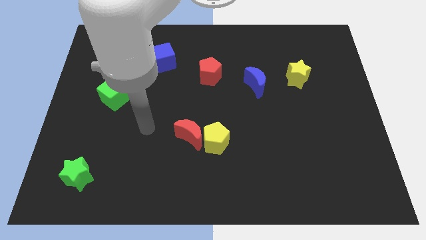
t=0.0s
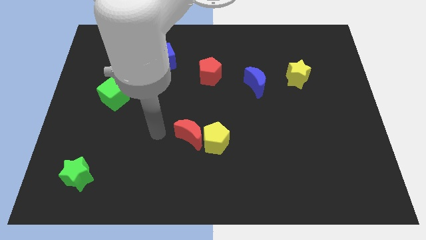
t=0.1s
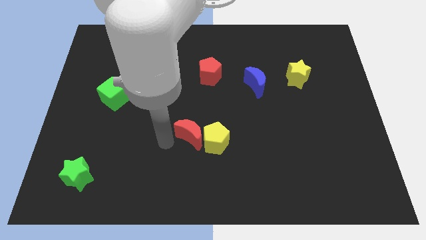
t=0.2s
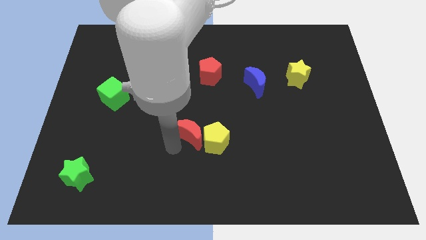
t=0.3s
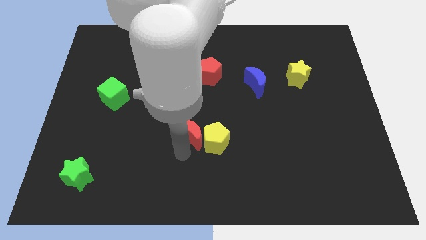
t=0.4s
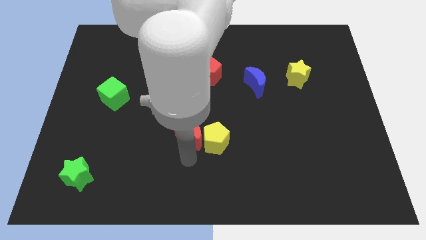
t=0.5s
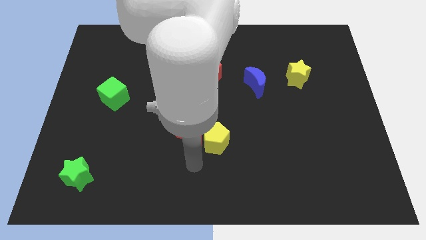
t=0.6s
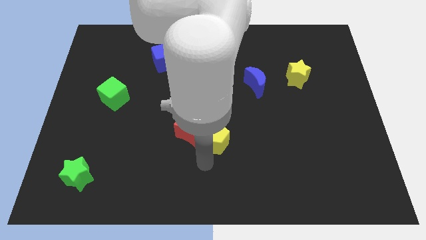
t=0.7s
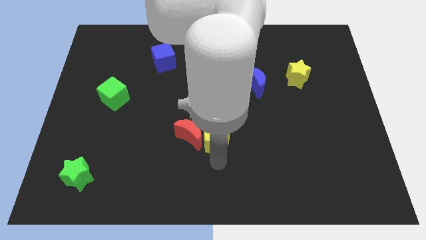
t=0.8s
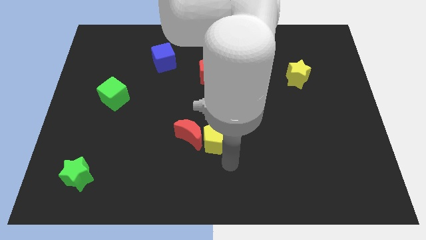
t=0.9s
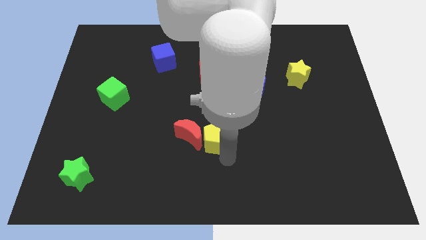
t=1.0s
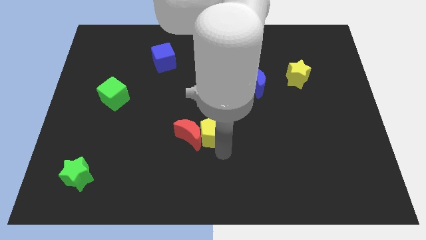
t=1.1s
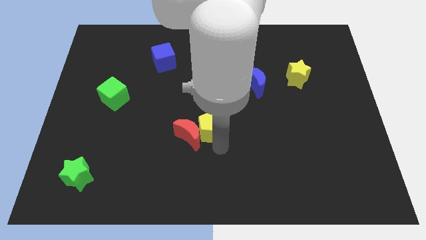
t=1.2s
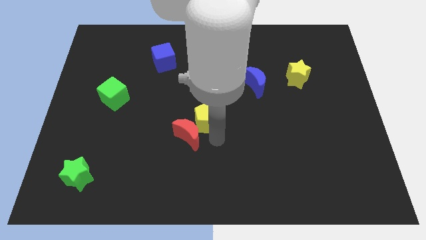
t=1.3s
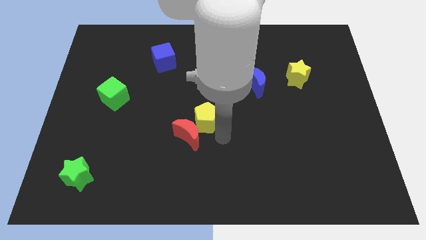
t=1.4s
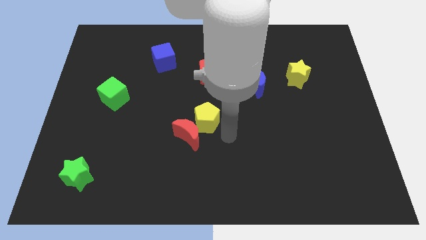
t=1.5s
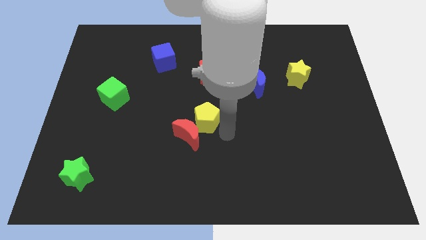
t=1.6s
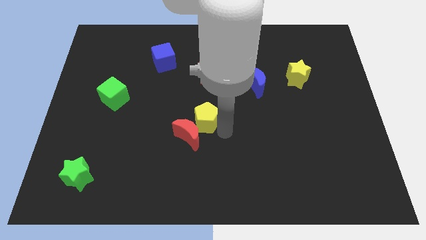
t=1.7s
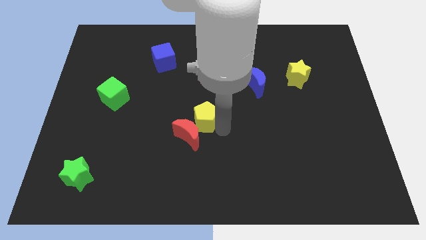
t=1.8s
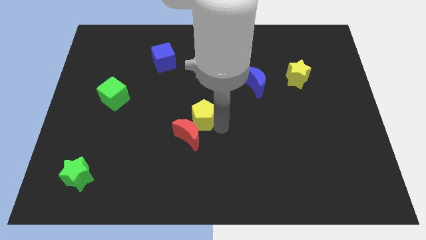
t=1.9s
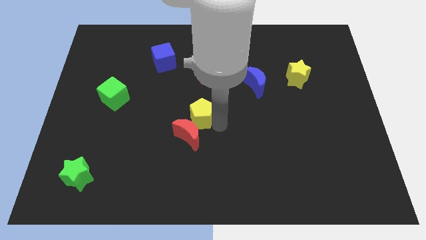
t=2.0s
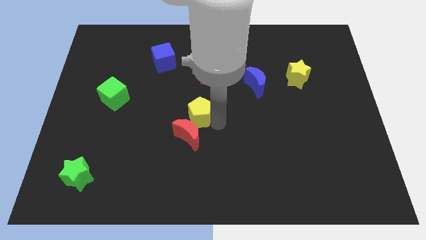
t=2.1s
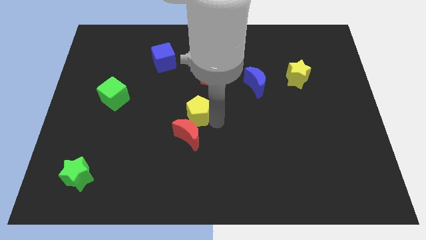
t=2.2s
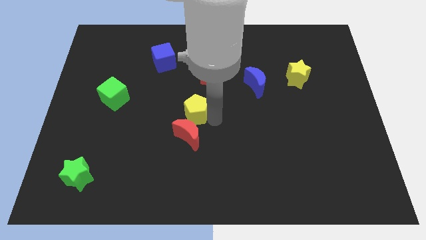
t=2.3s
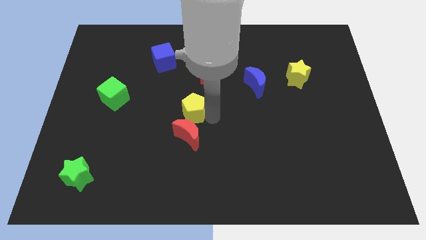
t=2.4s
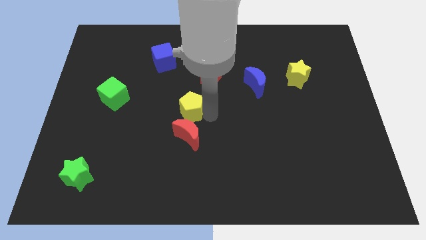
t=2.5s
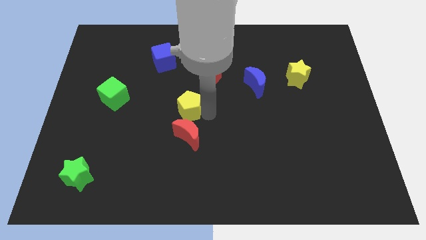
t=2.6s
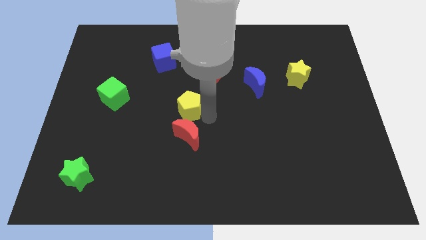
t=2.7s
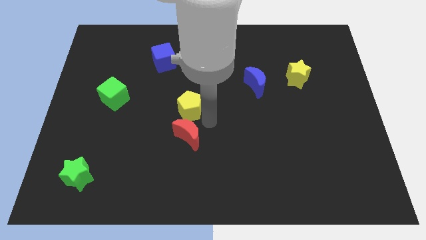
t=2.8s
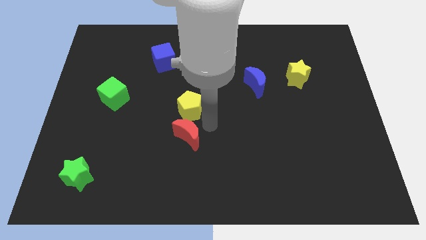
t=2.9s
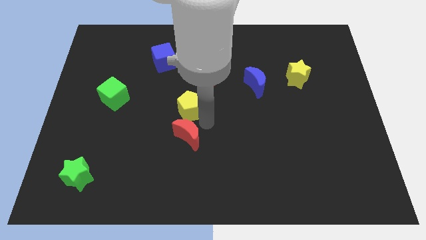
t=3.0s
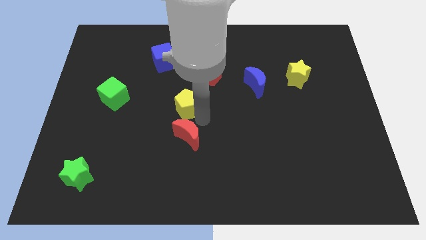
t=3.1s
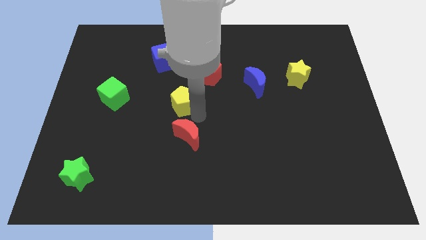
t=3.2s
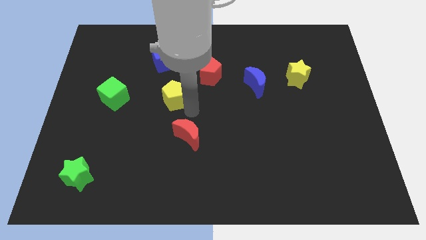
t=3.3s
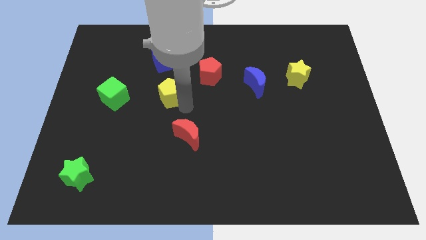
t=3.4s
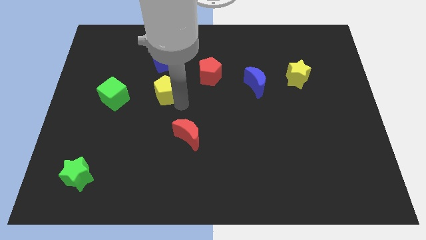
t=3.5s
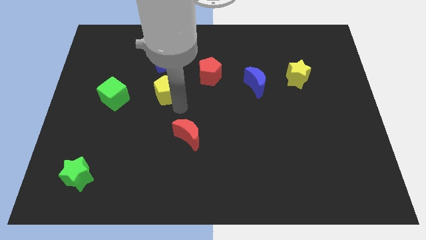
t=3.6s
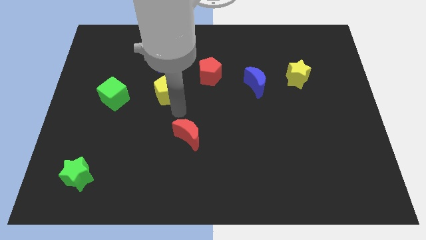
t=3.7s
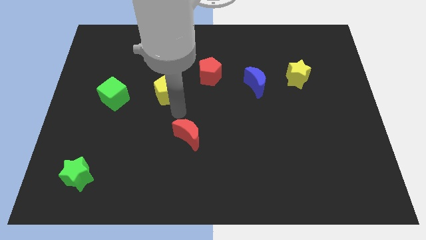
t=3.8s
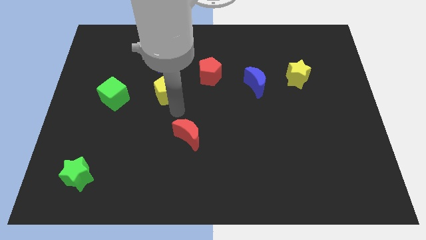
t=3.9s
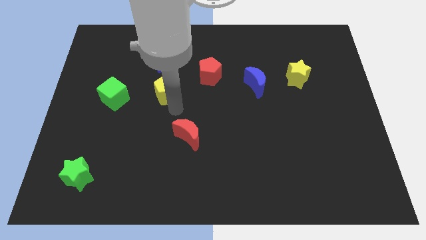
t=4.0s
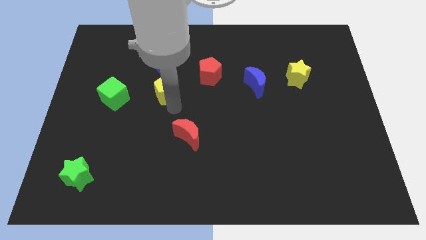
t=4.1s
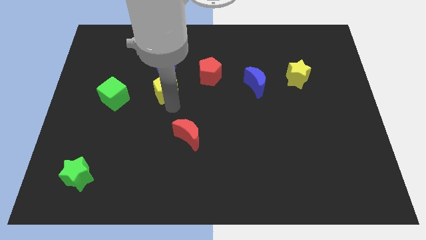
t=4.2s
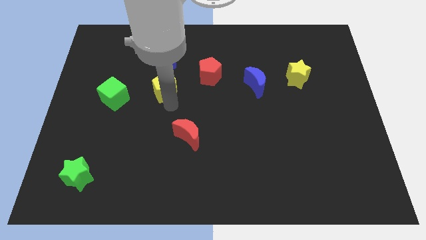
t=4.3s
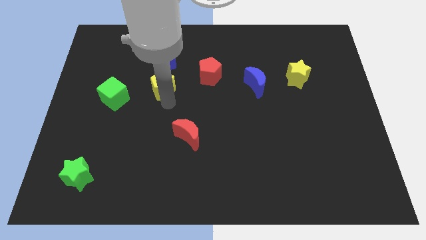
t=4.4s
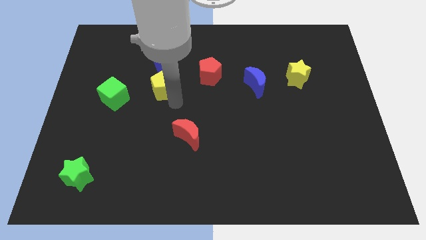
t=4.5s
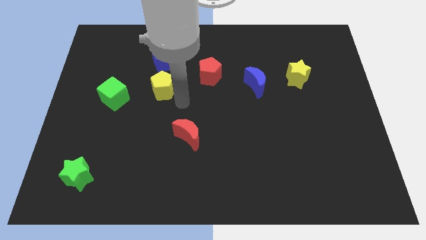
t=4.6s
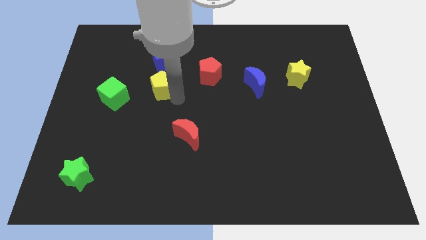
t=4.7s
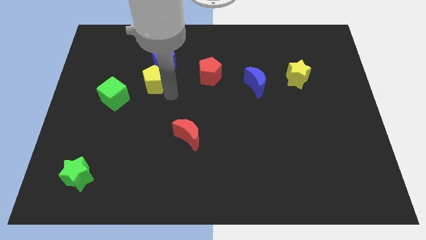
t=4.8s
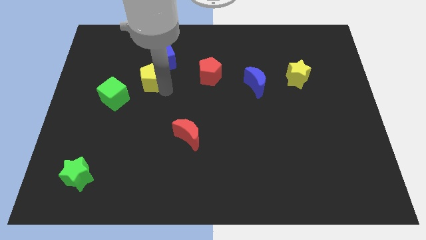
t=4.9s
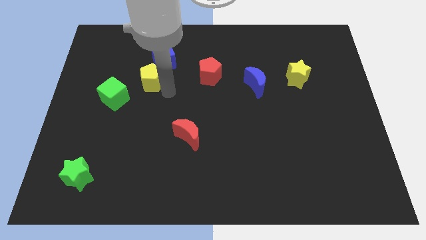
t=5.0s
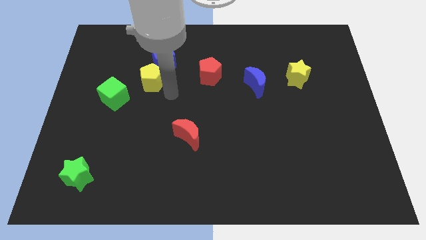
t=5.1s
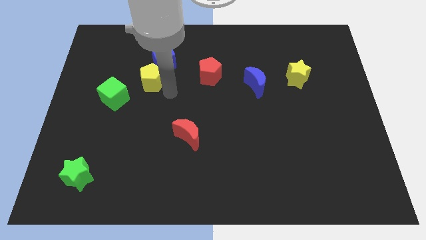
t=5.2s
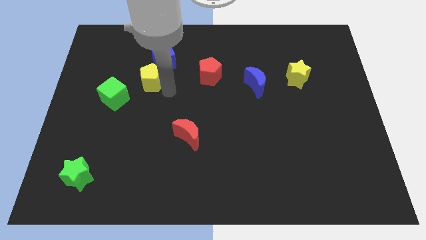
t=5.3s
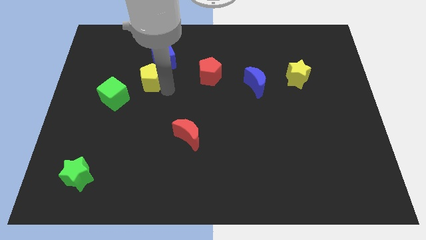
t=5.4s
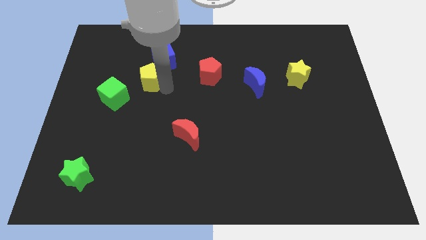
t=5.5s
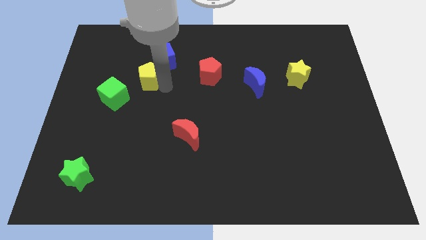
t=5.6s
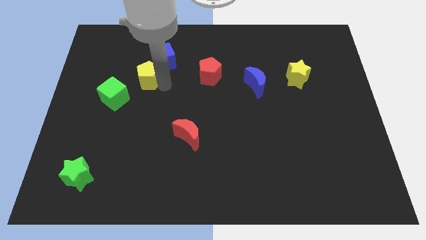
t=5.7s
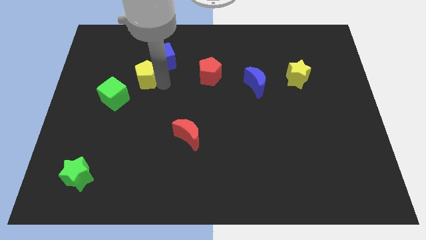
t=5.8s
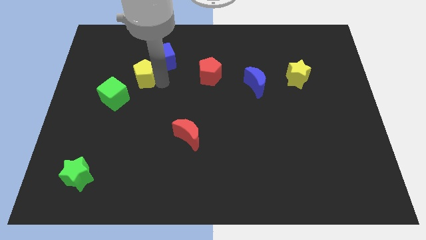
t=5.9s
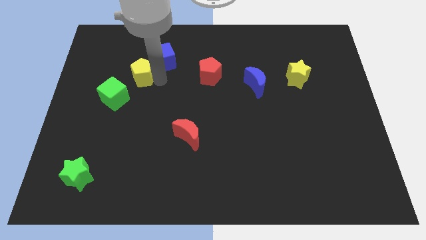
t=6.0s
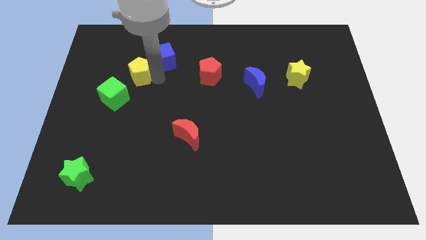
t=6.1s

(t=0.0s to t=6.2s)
slide the yellow pentagon to the left side of the blue cube

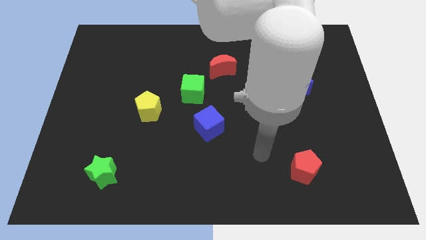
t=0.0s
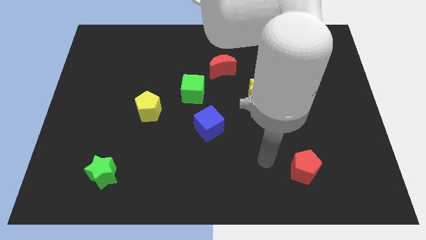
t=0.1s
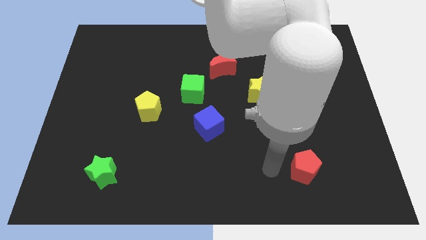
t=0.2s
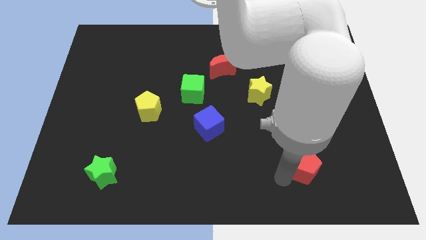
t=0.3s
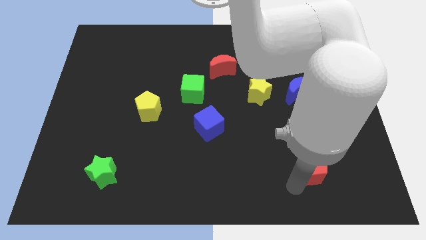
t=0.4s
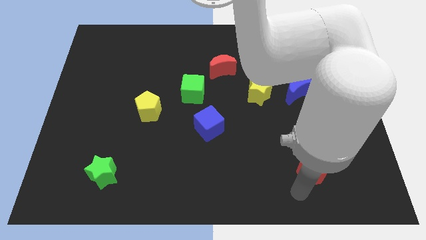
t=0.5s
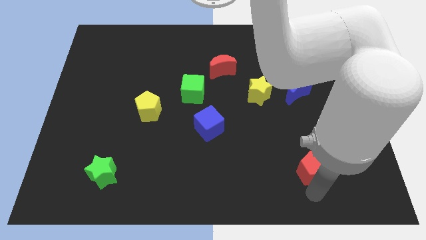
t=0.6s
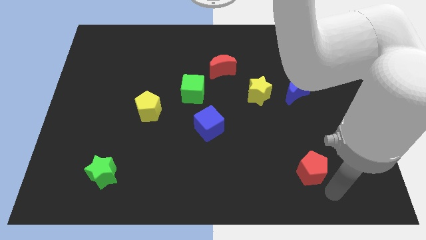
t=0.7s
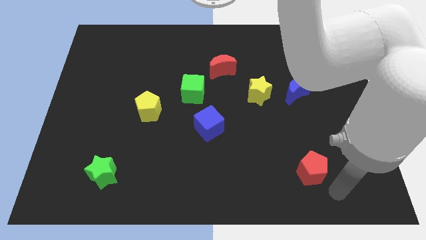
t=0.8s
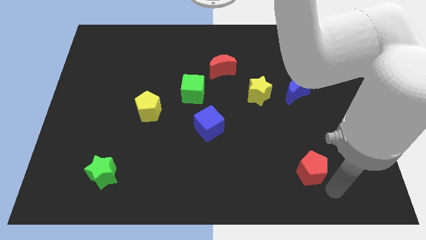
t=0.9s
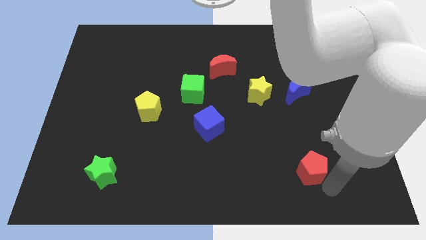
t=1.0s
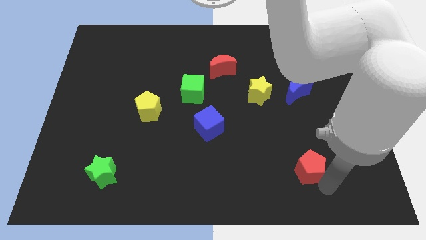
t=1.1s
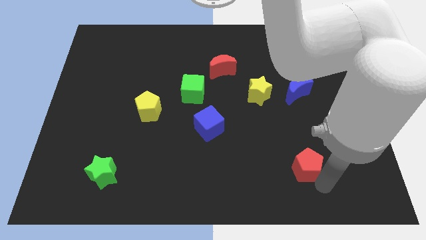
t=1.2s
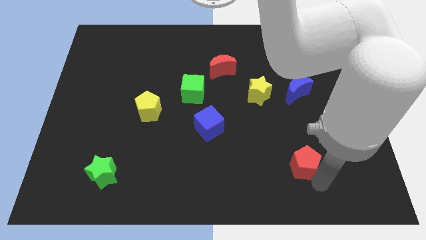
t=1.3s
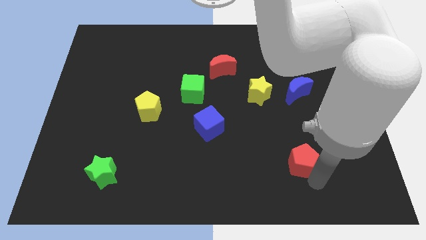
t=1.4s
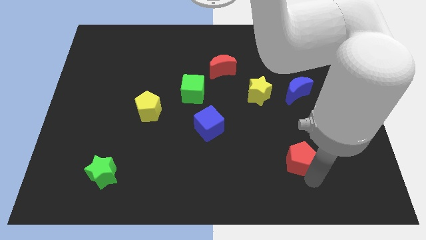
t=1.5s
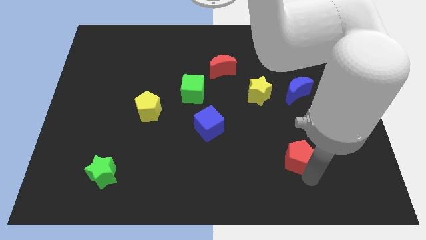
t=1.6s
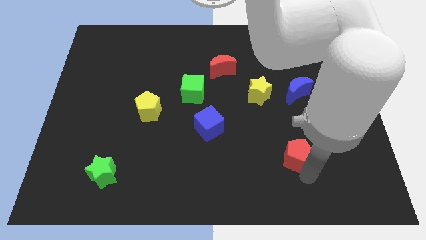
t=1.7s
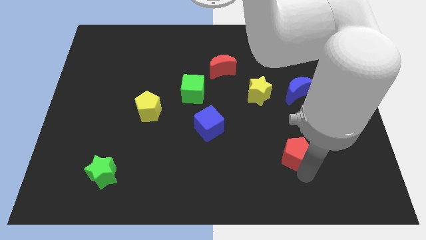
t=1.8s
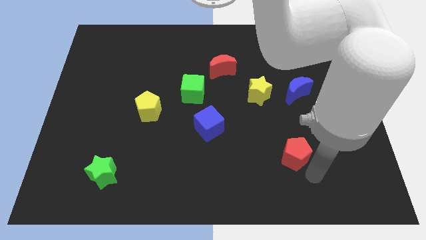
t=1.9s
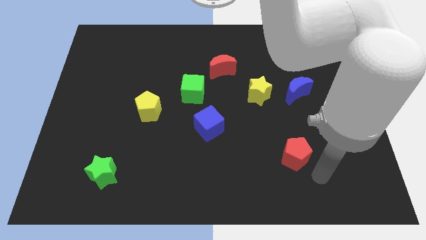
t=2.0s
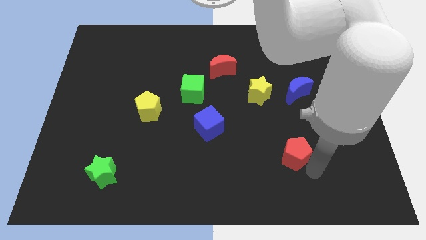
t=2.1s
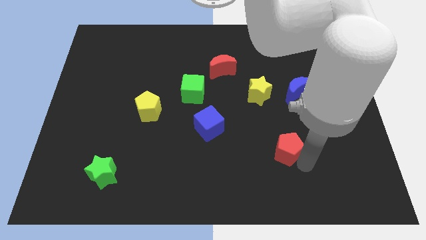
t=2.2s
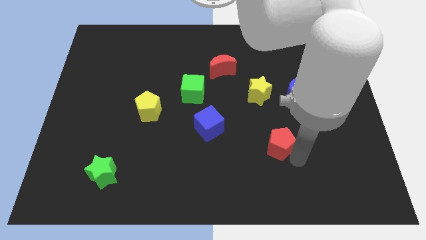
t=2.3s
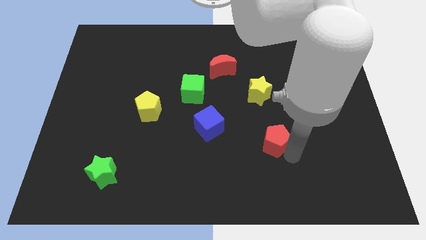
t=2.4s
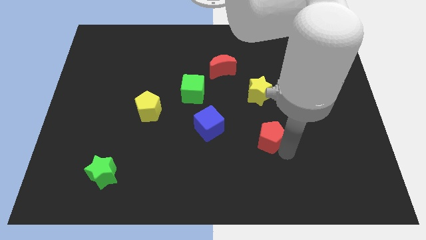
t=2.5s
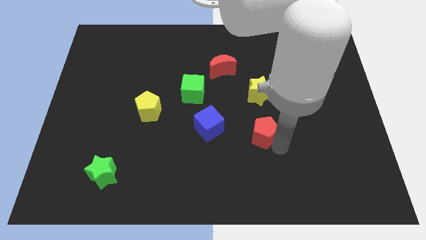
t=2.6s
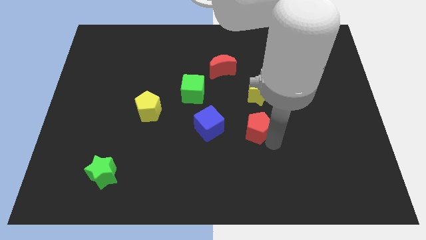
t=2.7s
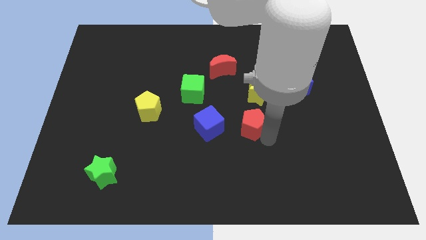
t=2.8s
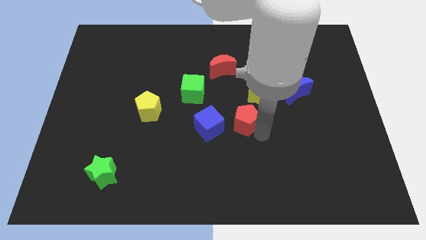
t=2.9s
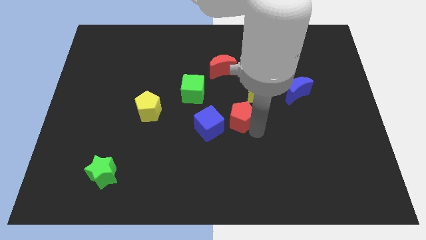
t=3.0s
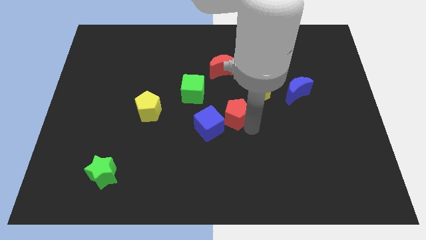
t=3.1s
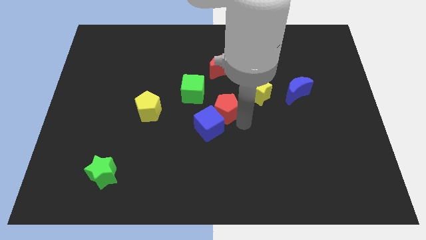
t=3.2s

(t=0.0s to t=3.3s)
slide the red pentagon to the top of the blue cube
